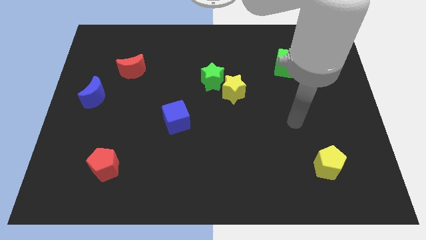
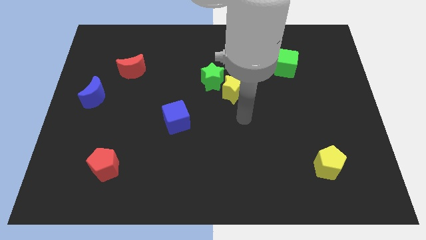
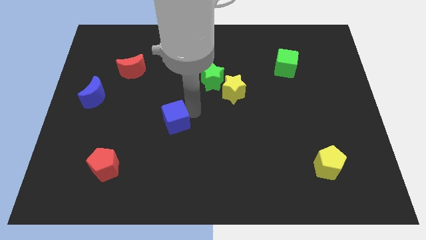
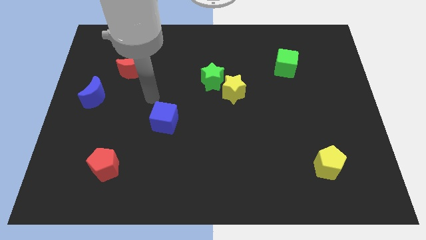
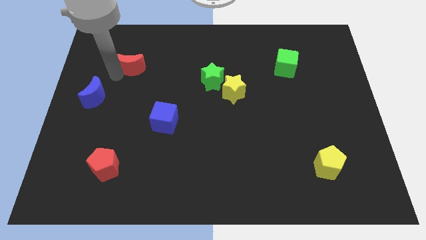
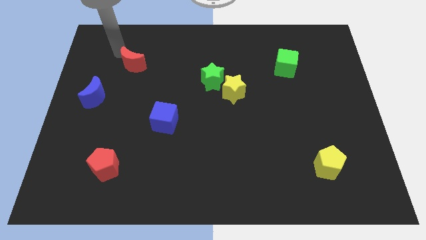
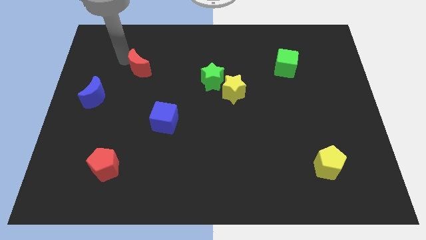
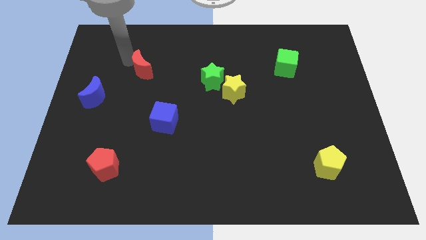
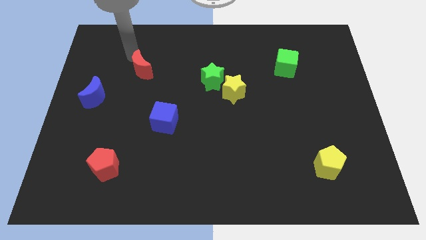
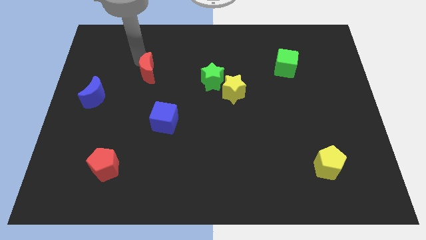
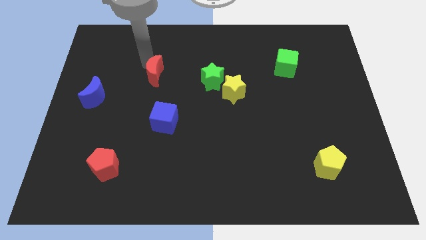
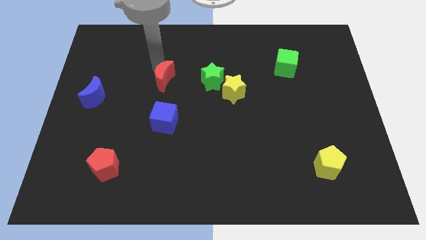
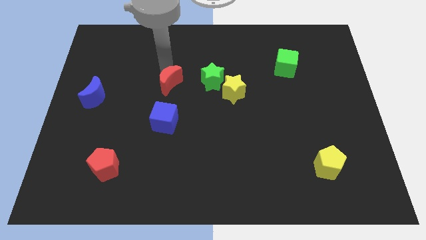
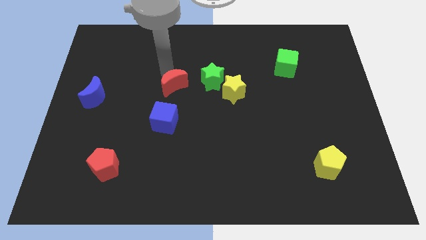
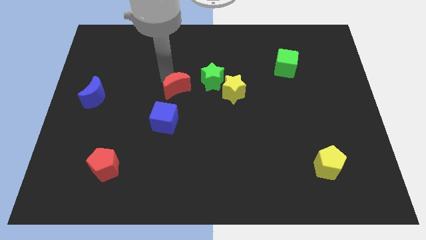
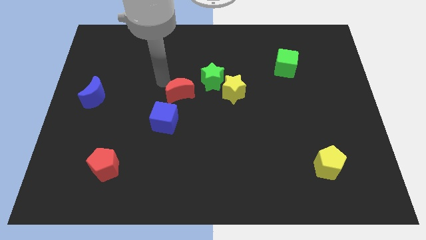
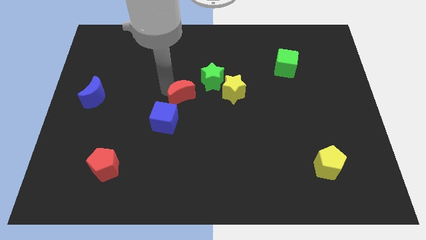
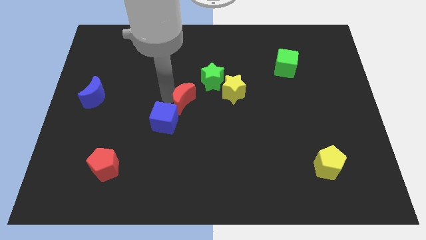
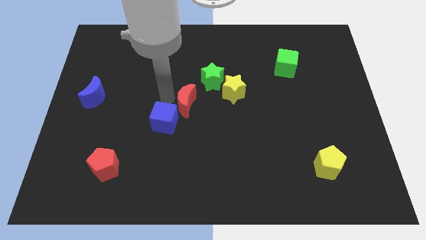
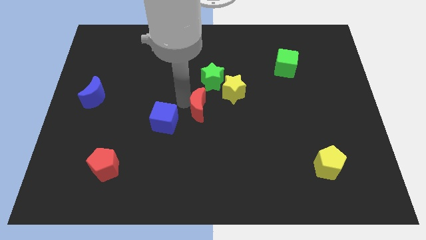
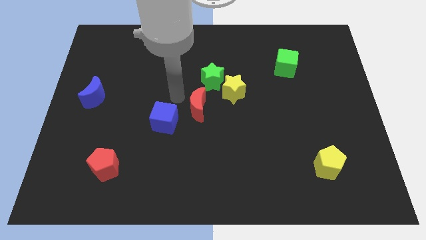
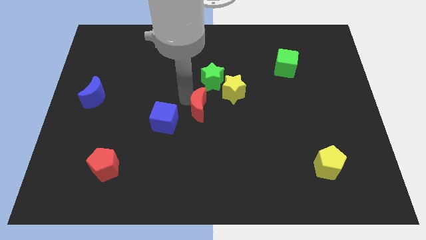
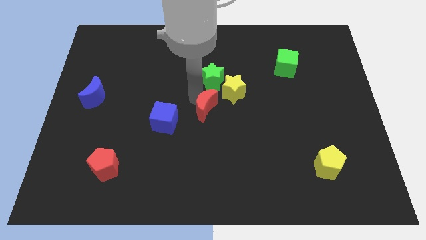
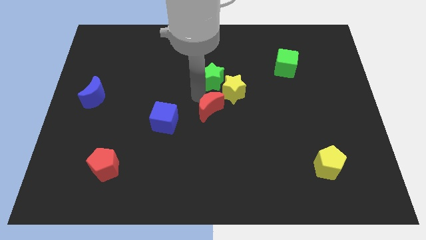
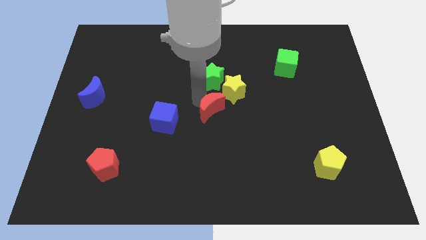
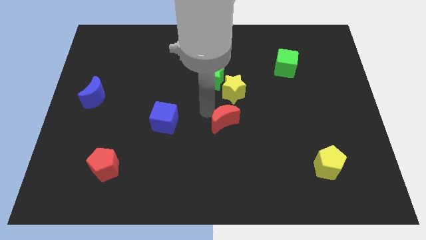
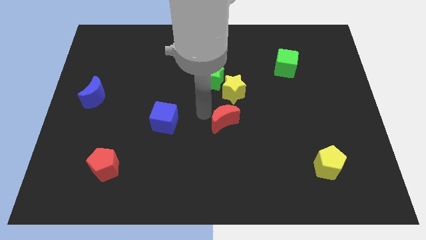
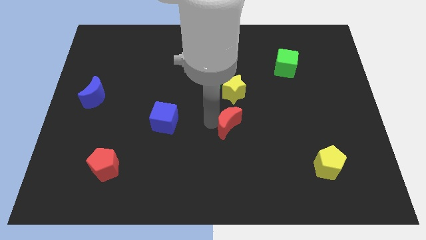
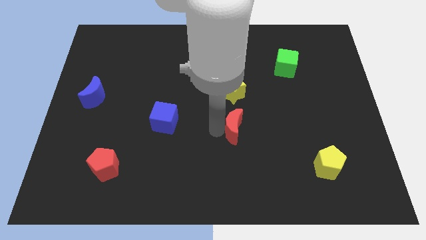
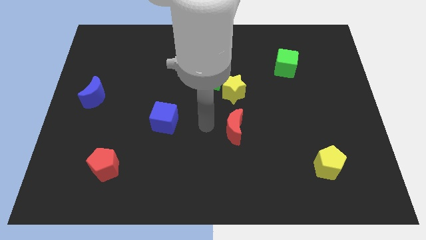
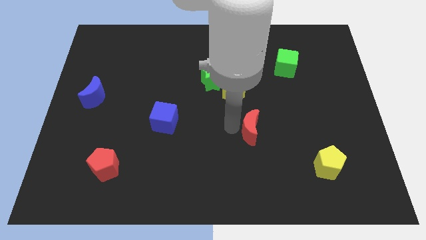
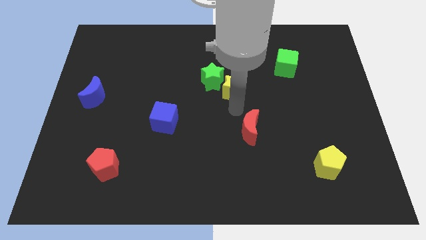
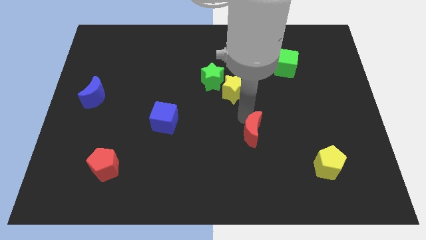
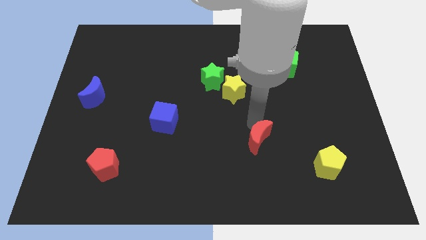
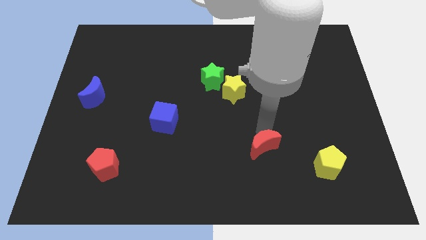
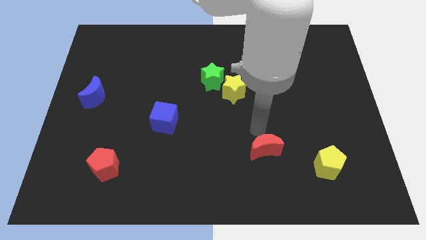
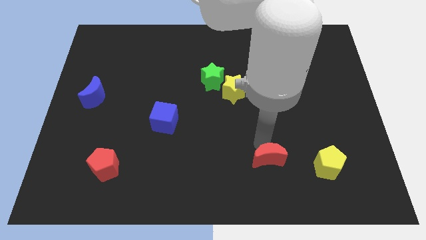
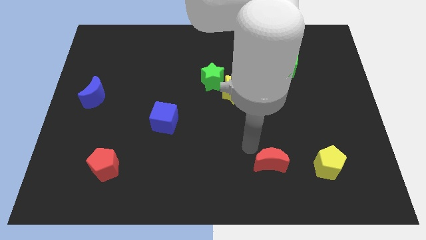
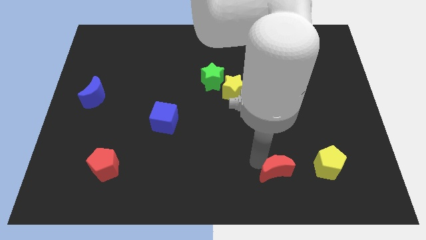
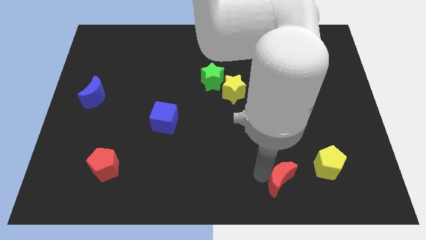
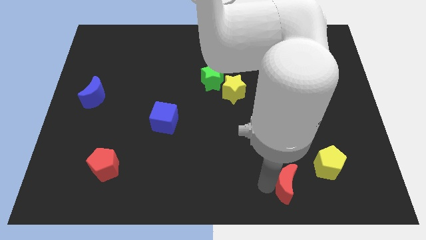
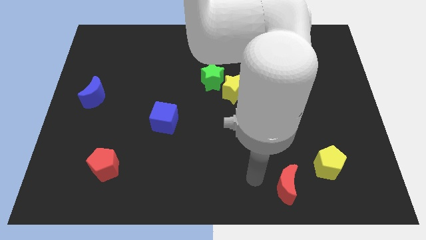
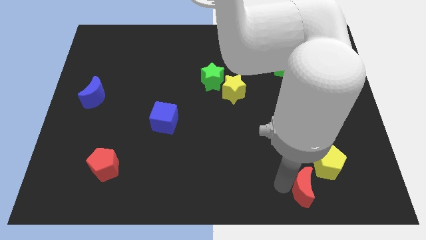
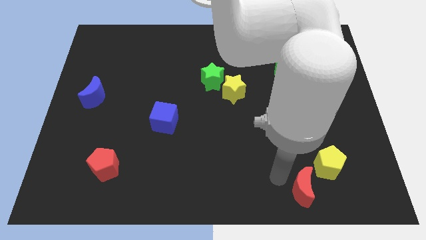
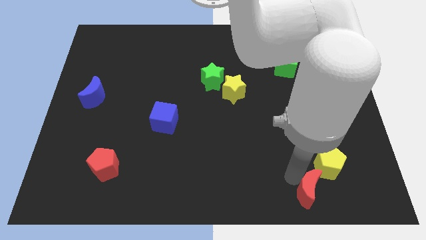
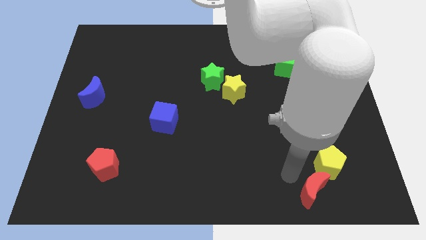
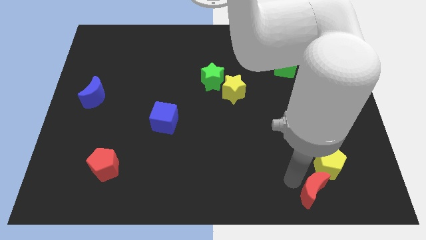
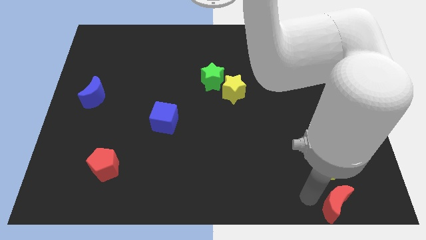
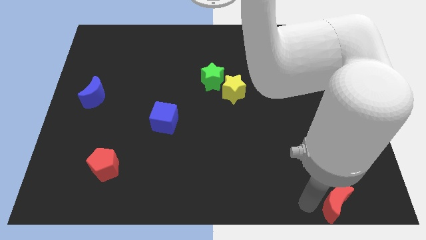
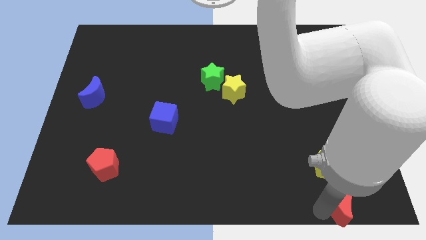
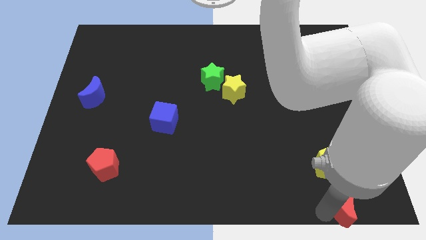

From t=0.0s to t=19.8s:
move the red moon to the lower right corner

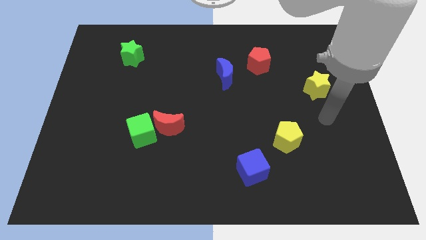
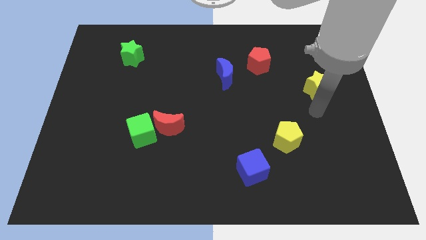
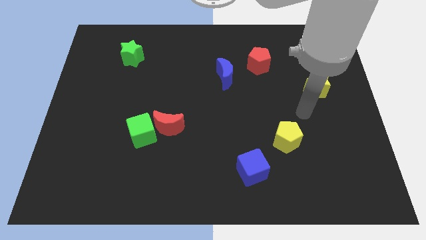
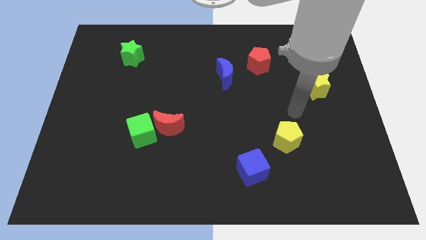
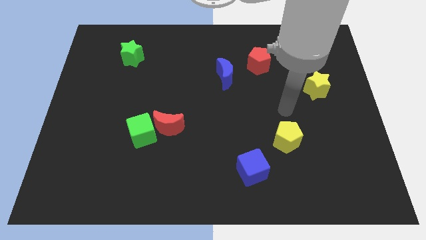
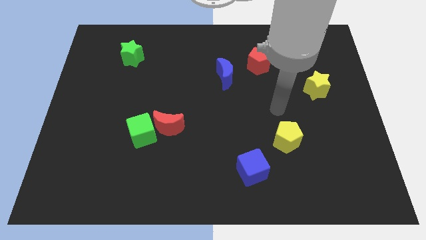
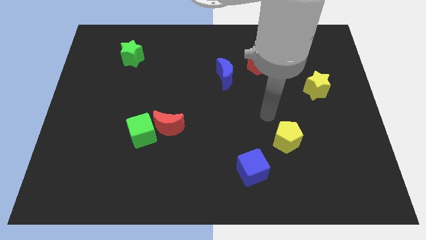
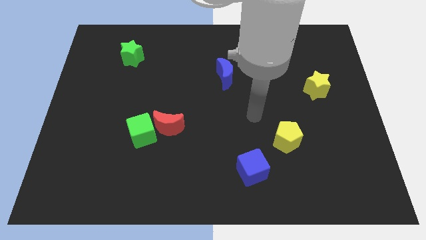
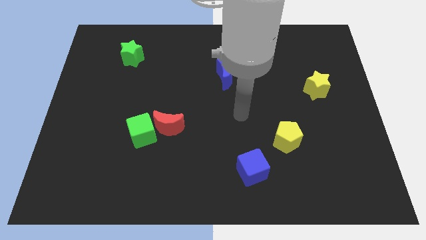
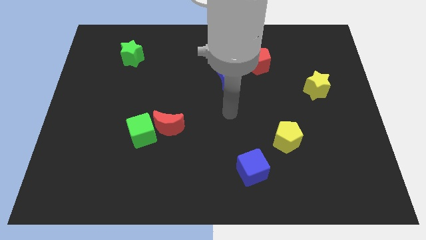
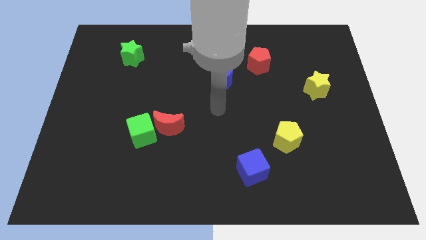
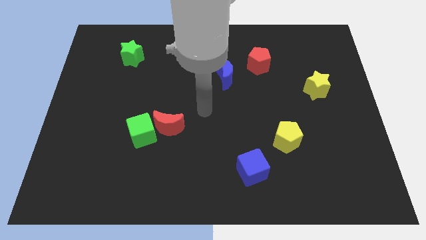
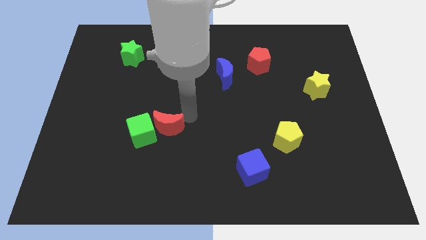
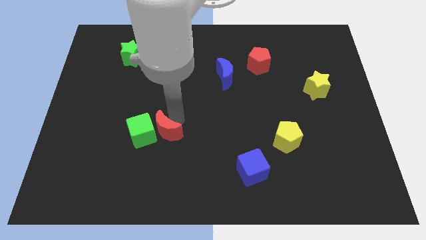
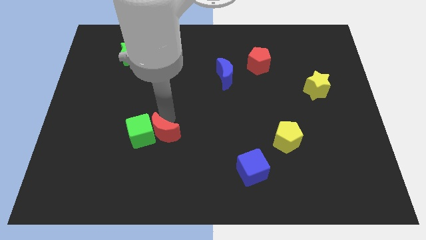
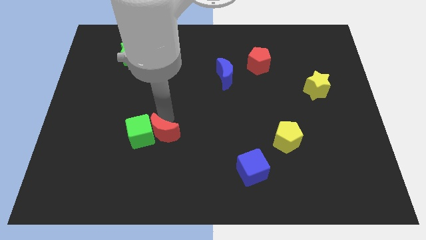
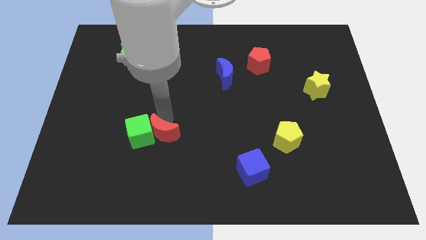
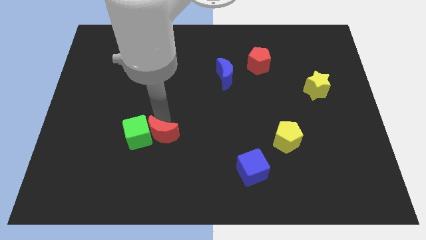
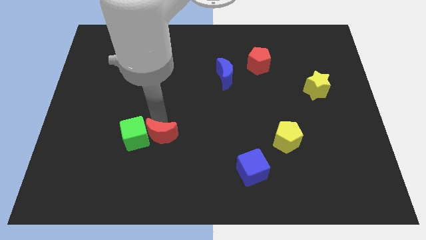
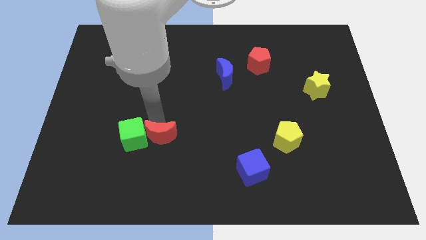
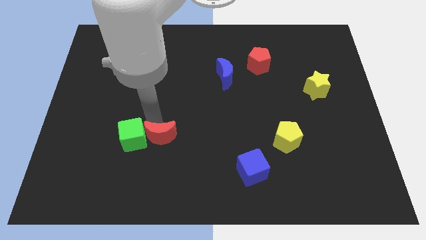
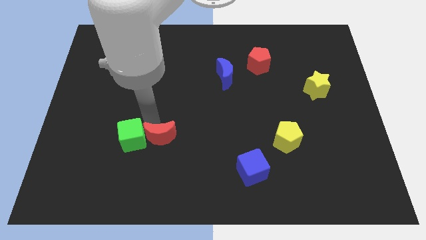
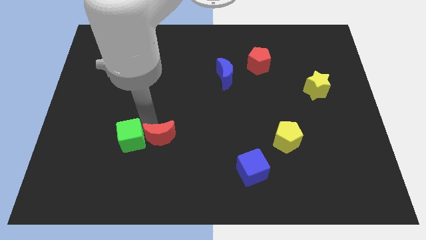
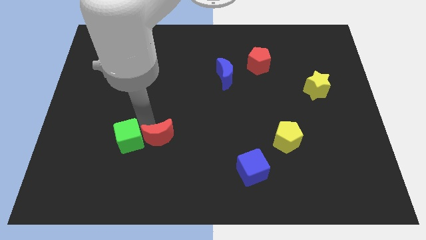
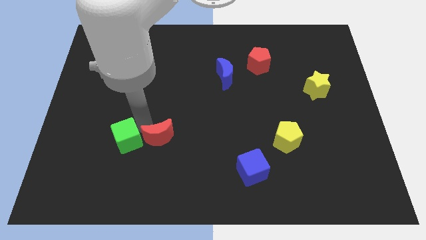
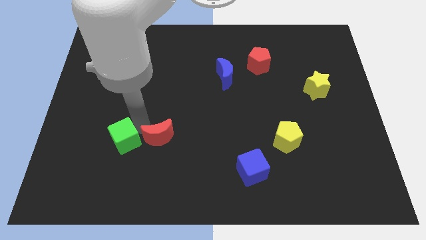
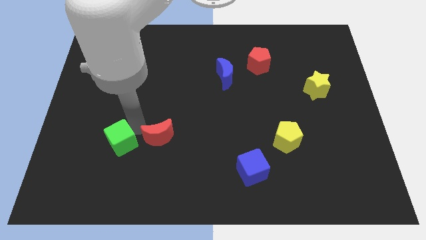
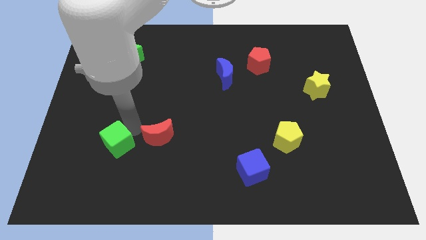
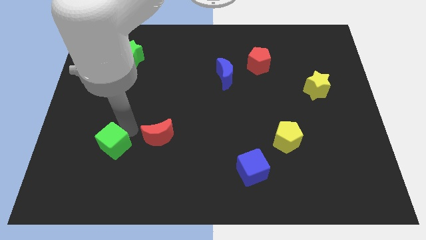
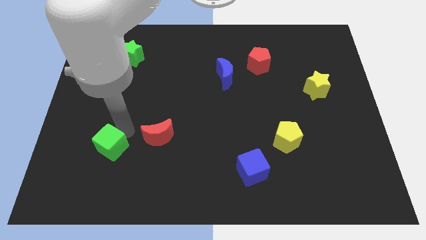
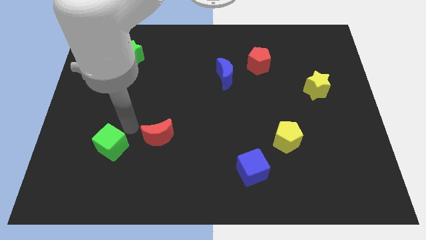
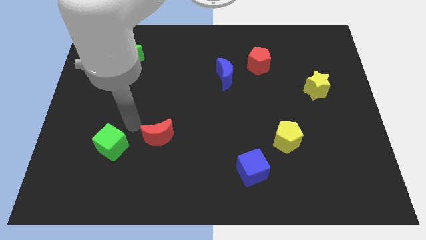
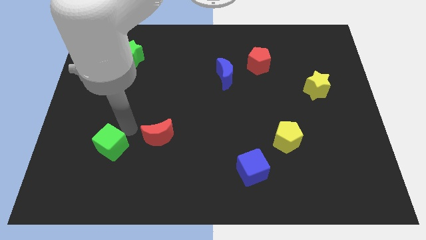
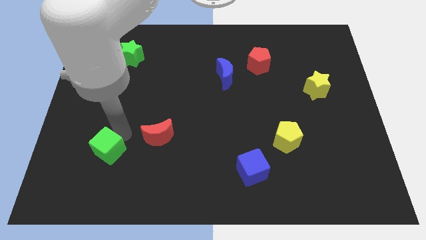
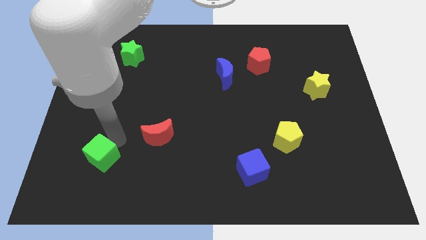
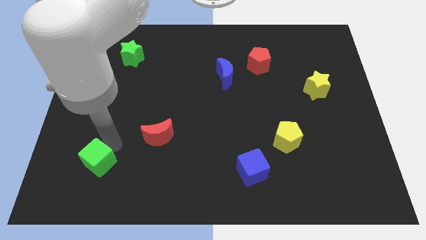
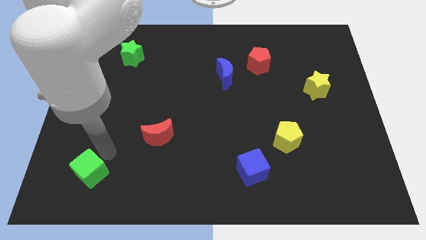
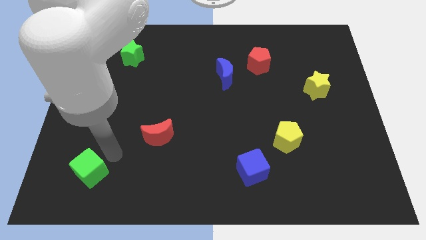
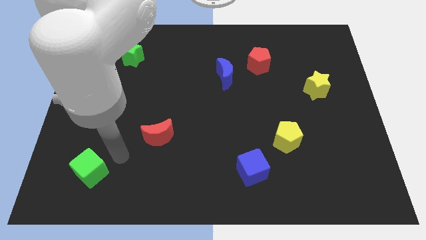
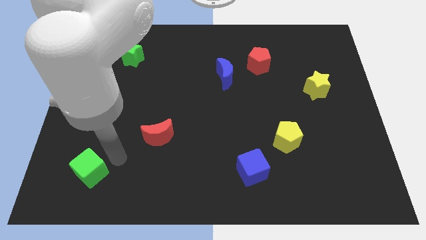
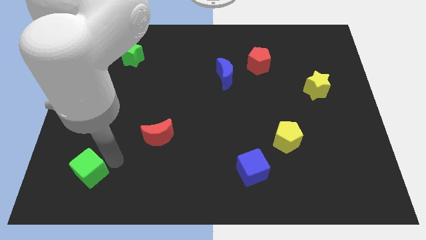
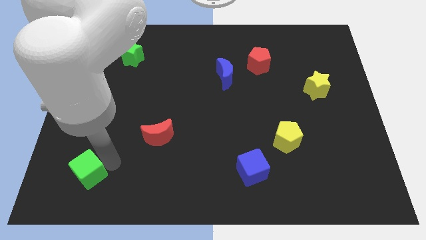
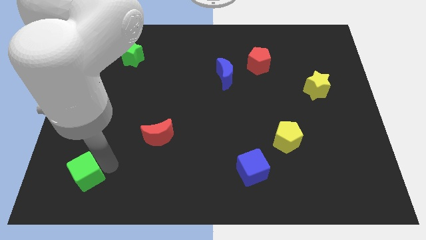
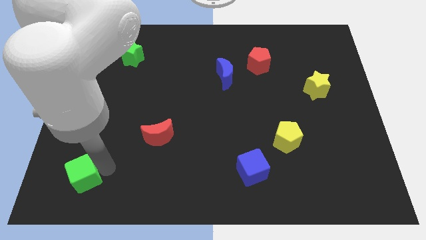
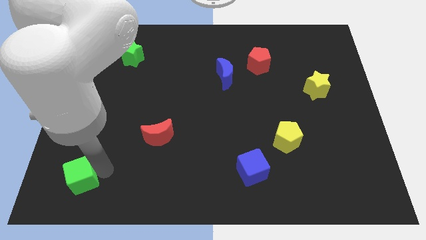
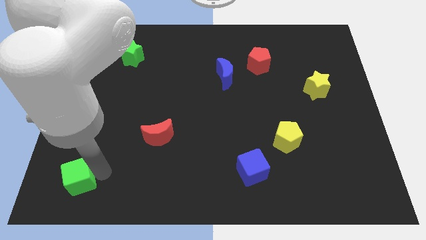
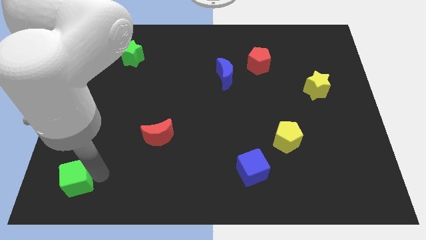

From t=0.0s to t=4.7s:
move the green cube to the lower left corner
